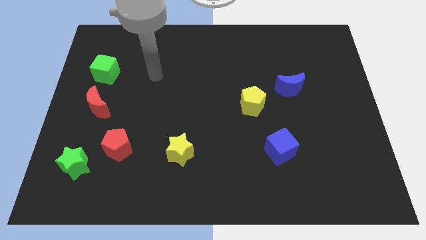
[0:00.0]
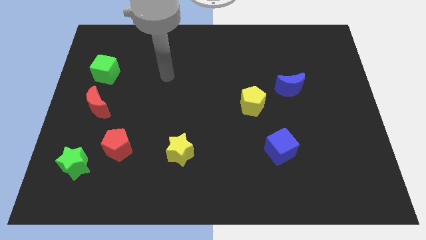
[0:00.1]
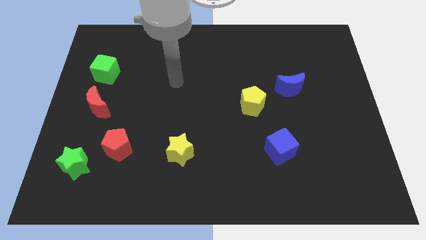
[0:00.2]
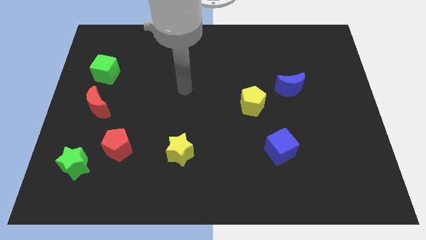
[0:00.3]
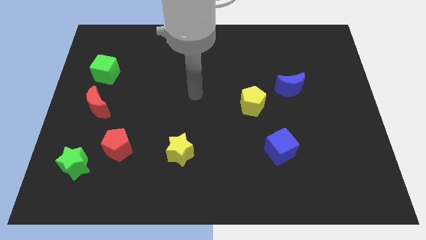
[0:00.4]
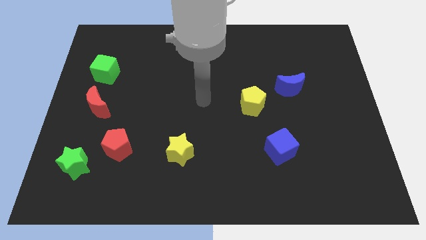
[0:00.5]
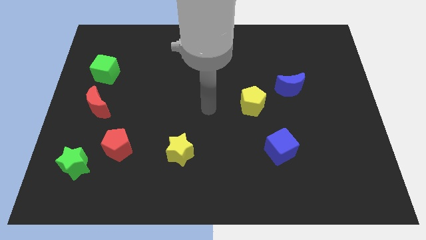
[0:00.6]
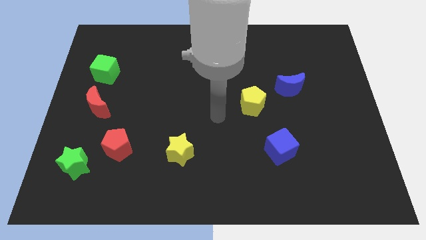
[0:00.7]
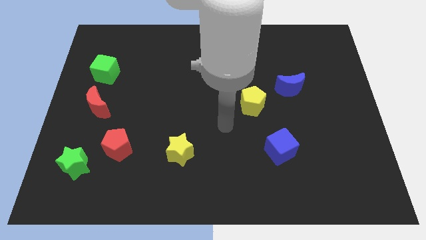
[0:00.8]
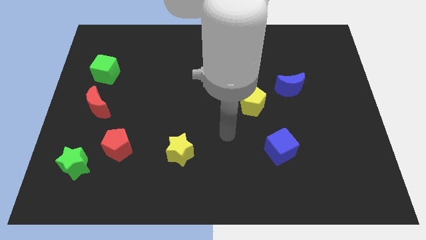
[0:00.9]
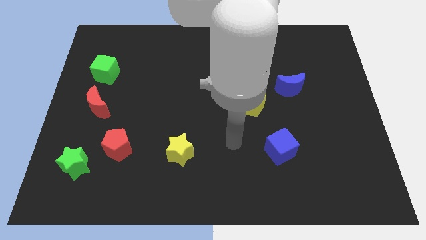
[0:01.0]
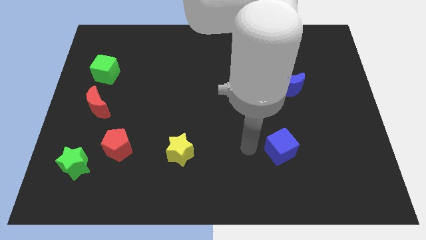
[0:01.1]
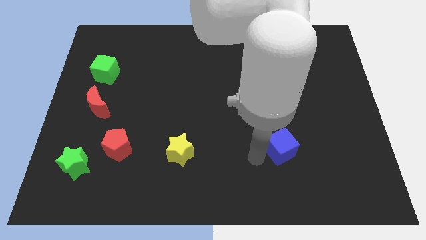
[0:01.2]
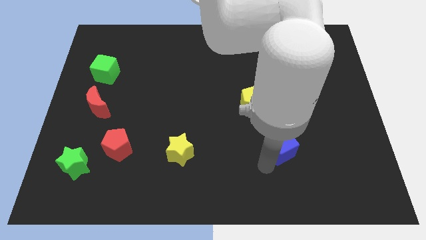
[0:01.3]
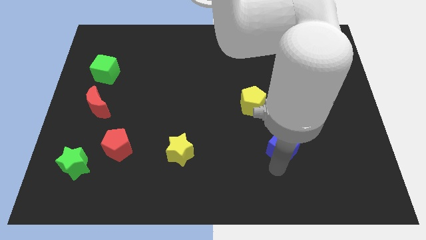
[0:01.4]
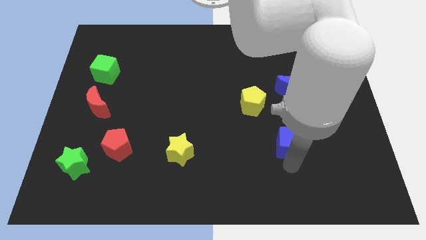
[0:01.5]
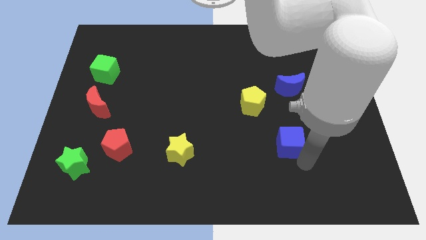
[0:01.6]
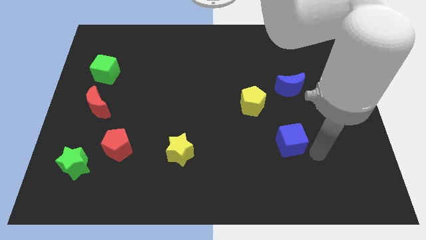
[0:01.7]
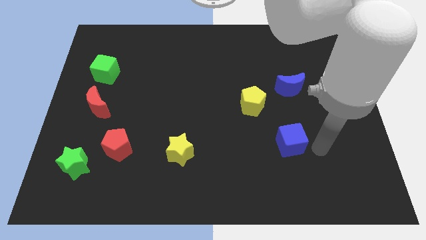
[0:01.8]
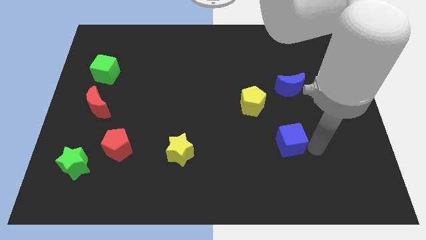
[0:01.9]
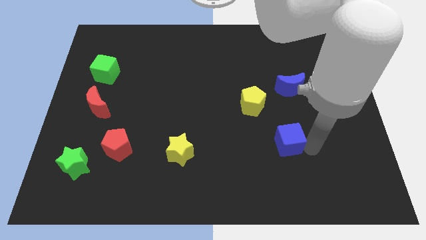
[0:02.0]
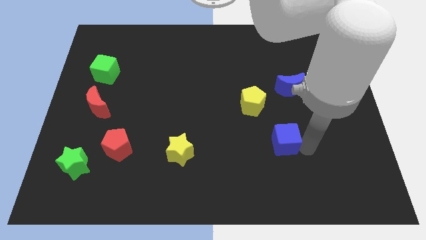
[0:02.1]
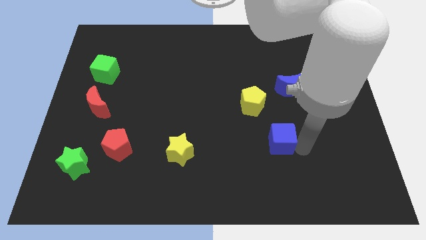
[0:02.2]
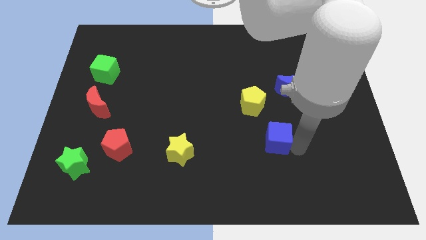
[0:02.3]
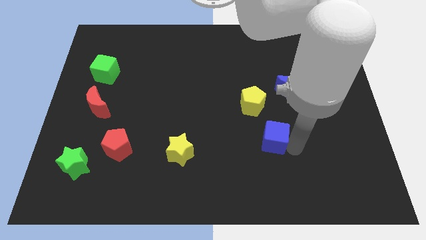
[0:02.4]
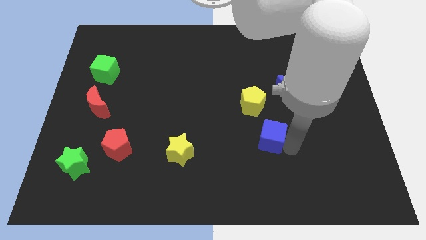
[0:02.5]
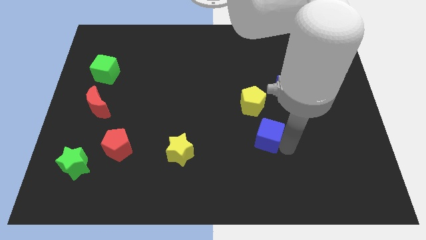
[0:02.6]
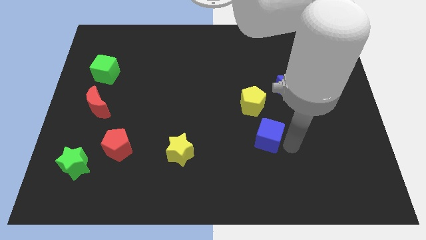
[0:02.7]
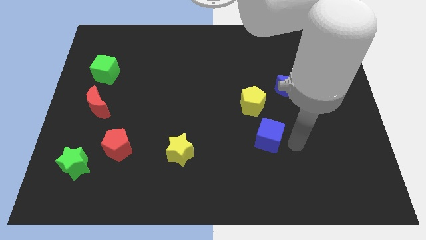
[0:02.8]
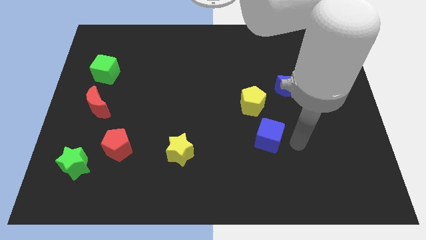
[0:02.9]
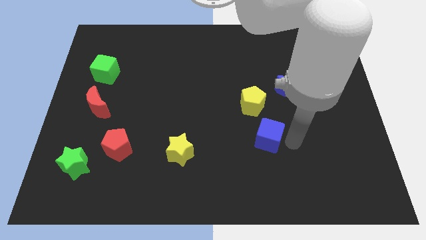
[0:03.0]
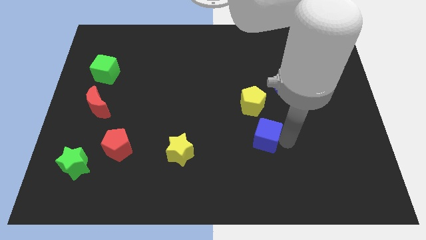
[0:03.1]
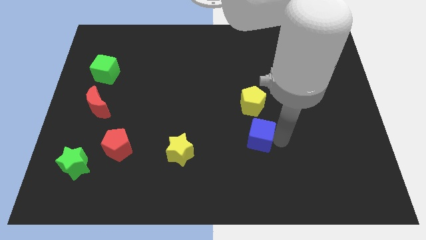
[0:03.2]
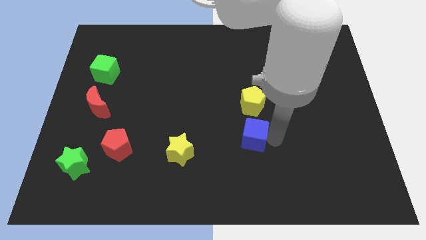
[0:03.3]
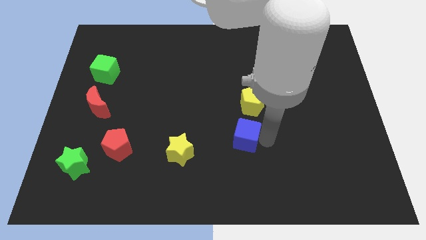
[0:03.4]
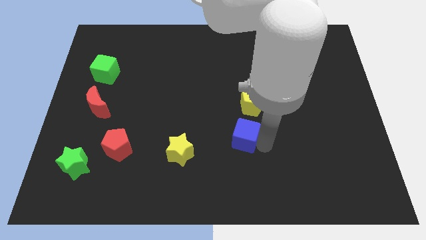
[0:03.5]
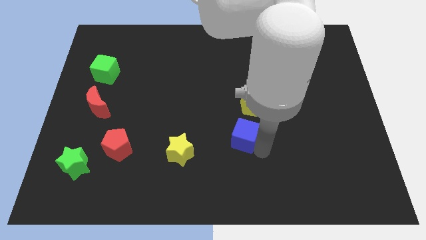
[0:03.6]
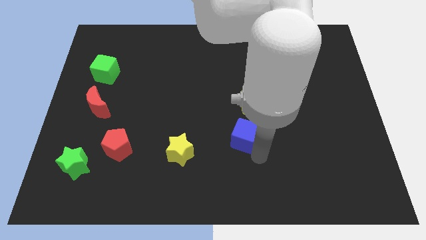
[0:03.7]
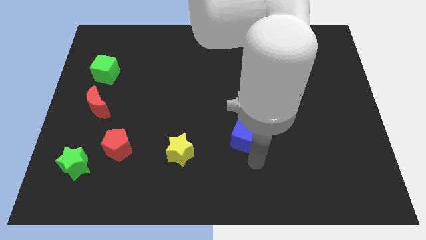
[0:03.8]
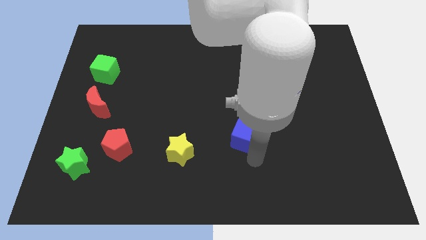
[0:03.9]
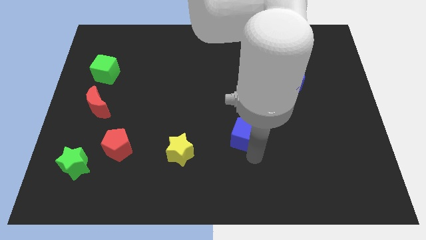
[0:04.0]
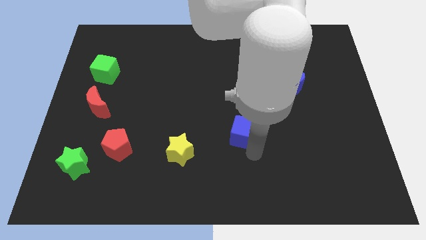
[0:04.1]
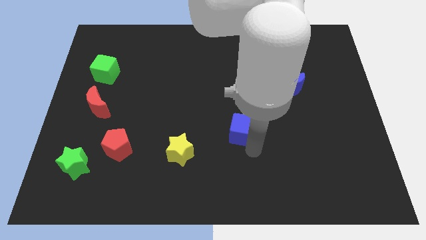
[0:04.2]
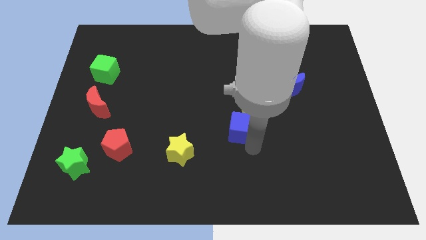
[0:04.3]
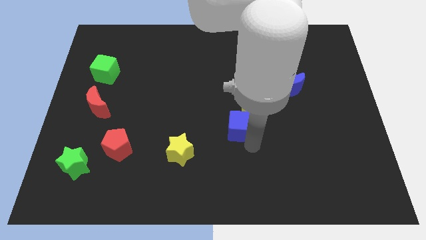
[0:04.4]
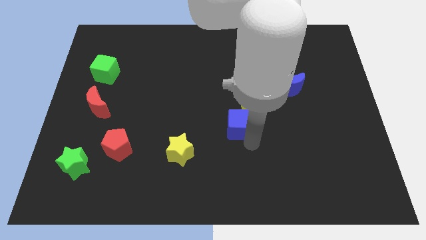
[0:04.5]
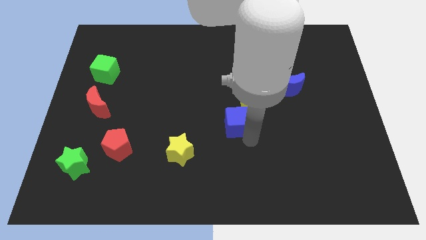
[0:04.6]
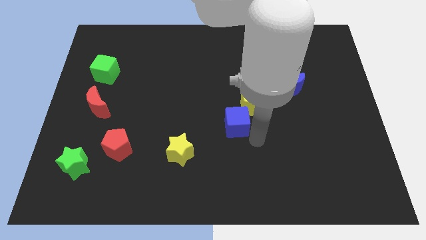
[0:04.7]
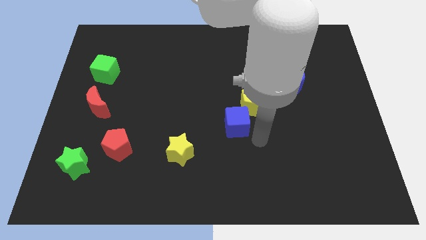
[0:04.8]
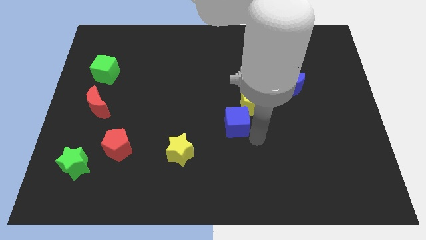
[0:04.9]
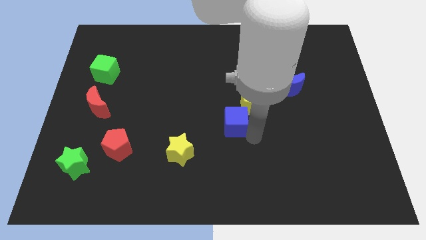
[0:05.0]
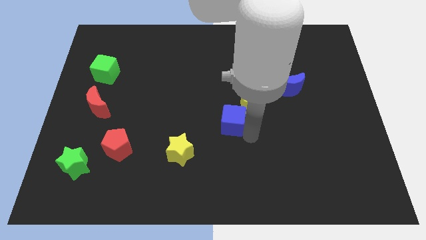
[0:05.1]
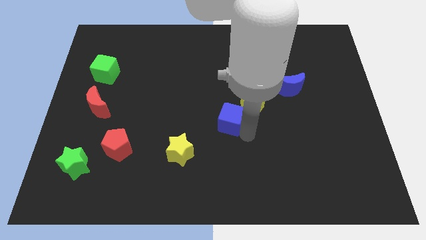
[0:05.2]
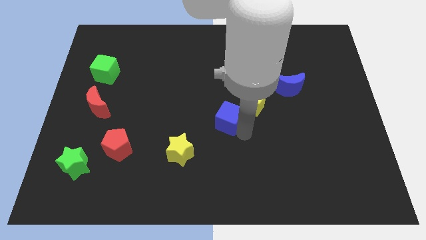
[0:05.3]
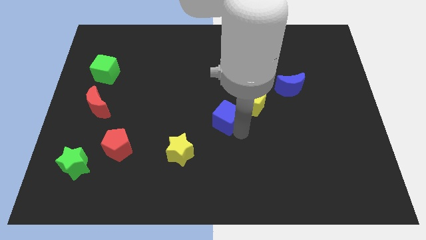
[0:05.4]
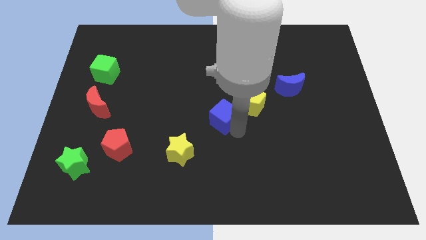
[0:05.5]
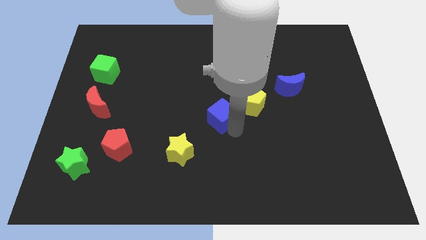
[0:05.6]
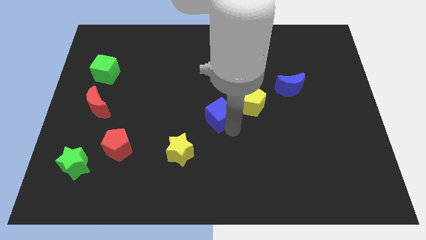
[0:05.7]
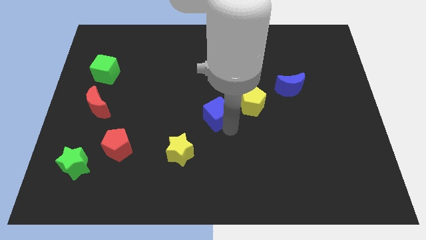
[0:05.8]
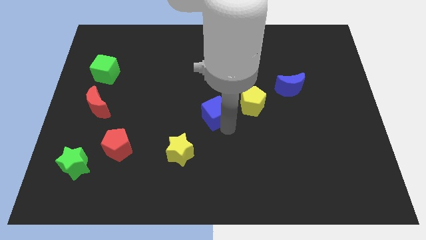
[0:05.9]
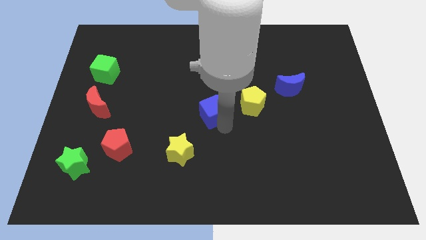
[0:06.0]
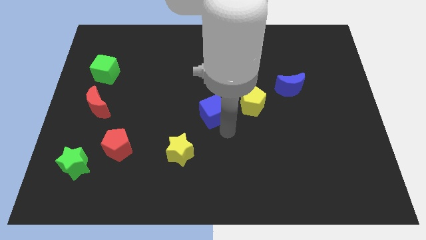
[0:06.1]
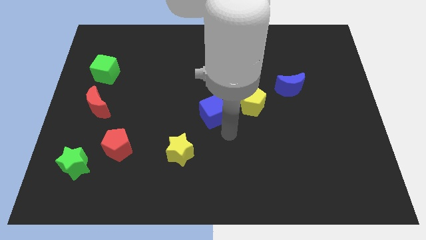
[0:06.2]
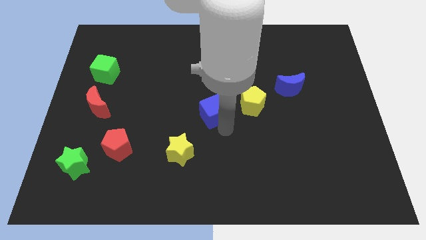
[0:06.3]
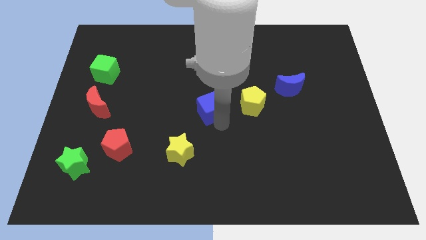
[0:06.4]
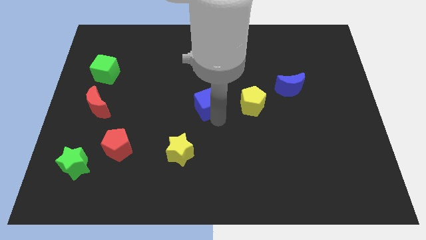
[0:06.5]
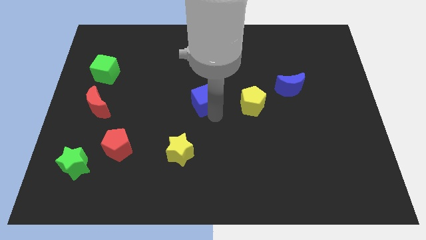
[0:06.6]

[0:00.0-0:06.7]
slide the blue cube diagonally up and to the left

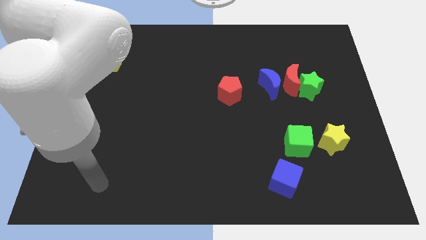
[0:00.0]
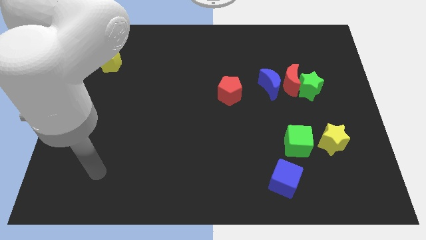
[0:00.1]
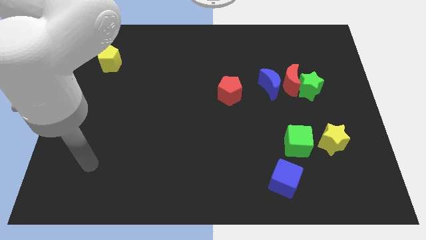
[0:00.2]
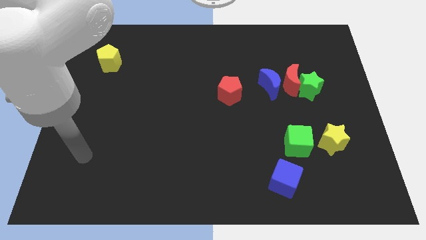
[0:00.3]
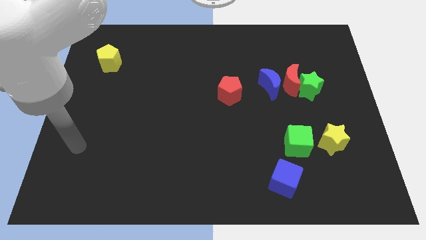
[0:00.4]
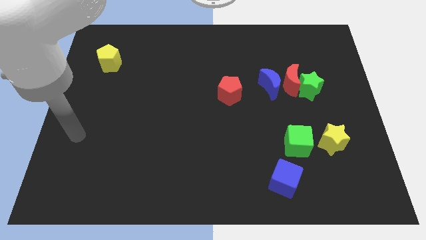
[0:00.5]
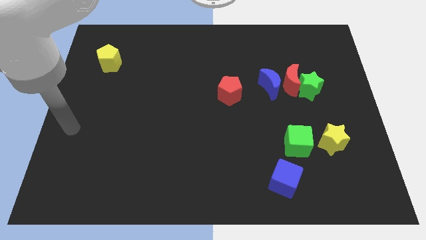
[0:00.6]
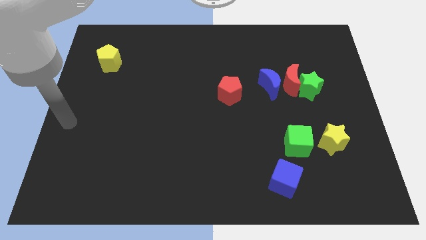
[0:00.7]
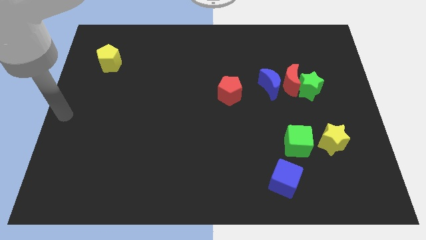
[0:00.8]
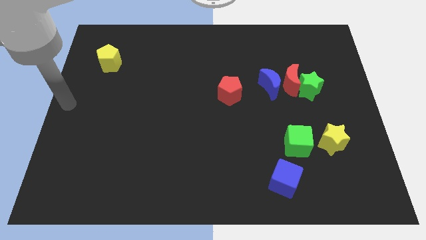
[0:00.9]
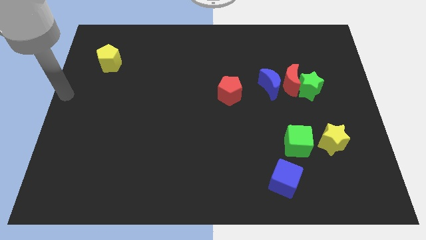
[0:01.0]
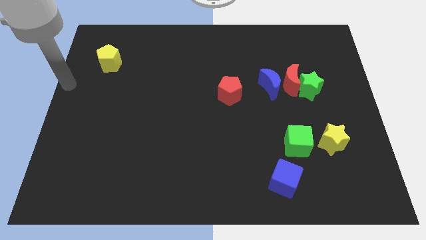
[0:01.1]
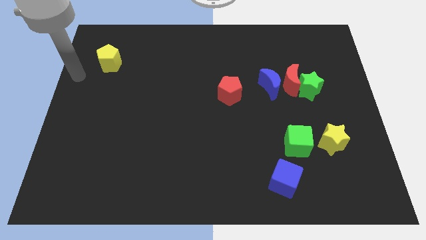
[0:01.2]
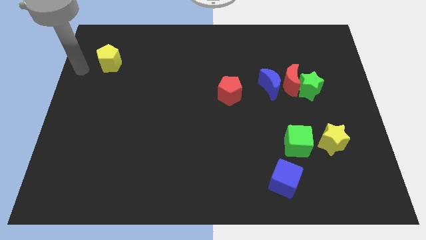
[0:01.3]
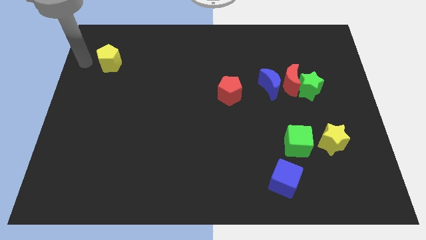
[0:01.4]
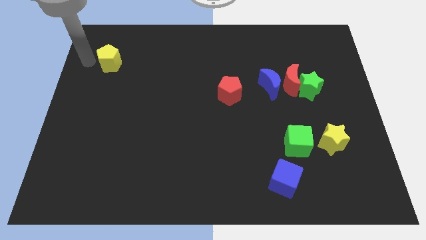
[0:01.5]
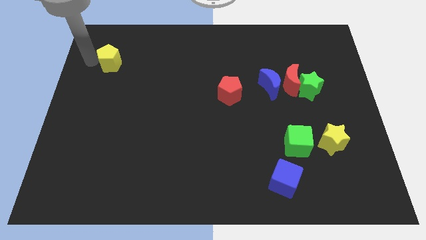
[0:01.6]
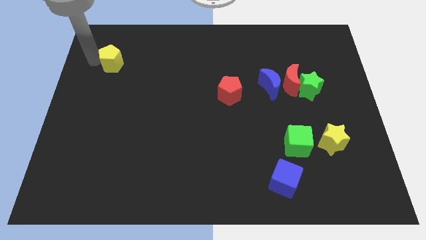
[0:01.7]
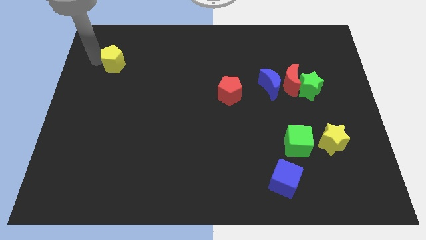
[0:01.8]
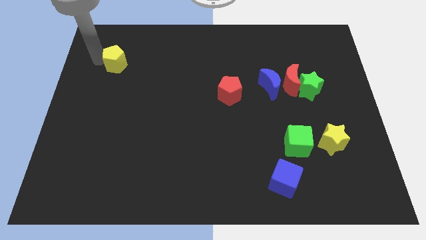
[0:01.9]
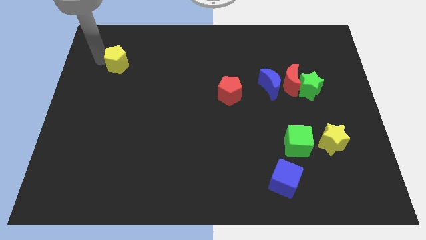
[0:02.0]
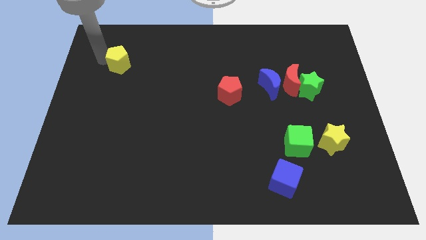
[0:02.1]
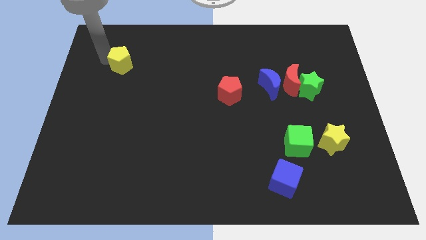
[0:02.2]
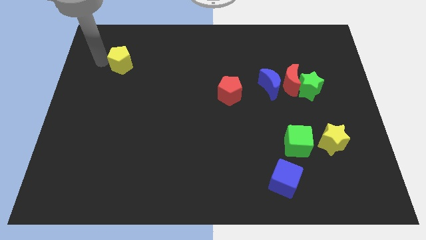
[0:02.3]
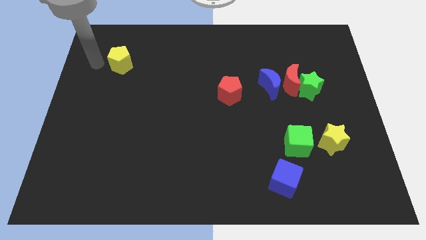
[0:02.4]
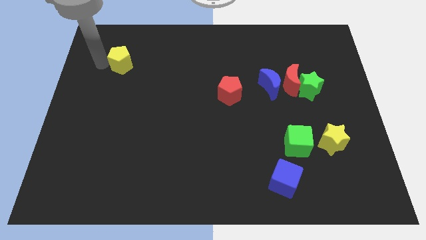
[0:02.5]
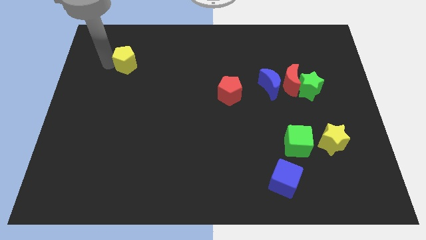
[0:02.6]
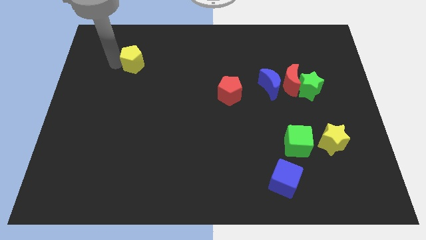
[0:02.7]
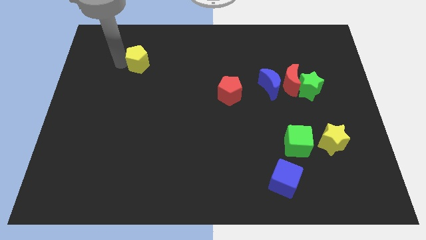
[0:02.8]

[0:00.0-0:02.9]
slide the yellow pentagon slightly to the right
